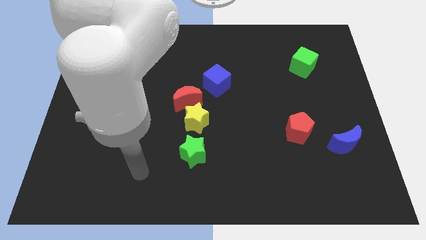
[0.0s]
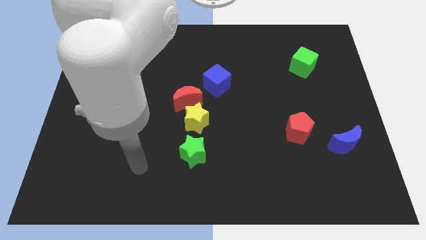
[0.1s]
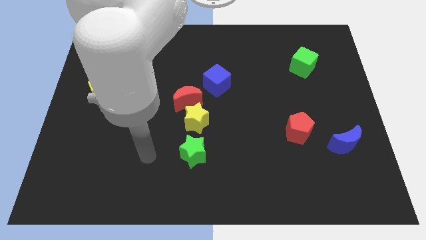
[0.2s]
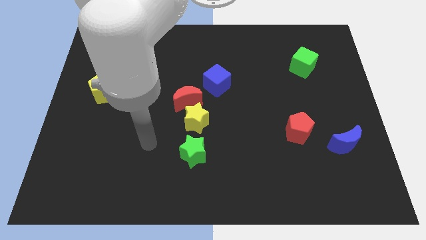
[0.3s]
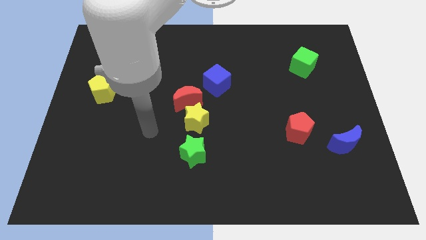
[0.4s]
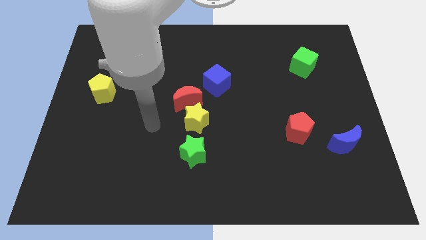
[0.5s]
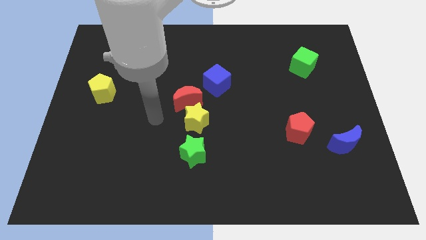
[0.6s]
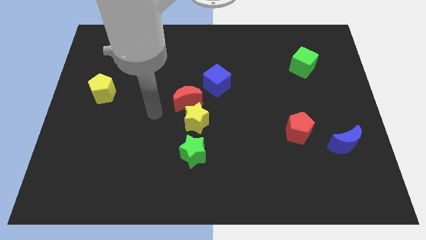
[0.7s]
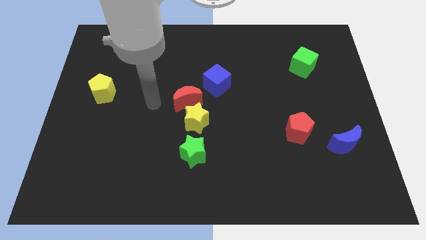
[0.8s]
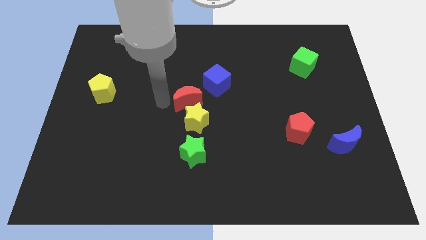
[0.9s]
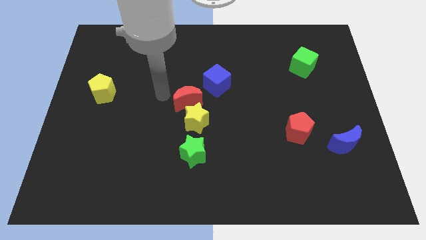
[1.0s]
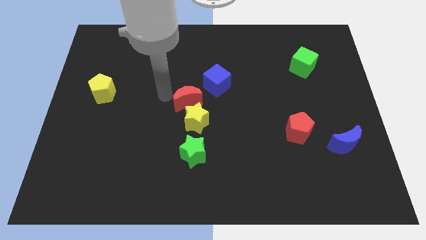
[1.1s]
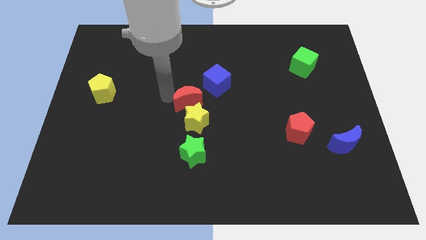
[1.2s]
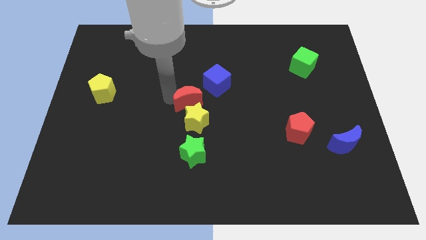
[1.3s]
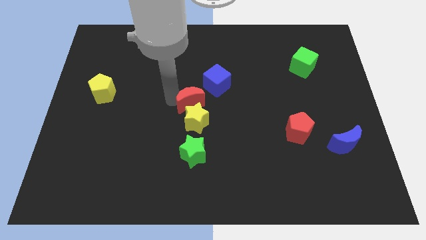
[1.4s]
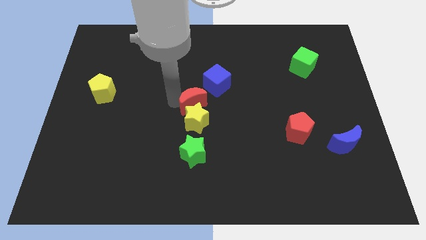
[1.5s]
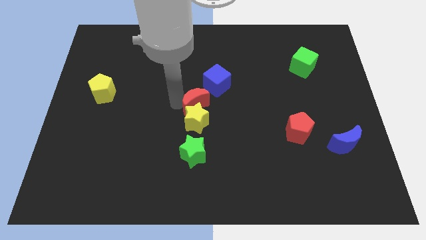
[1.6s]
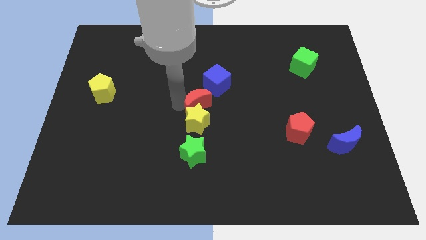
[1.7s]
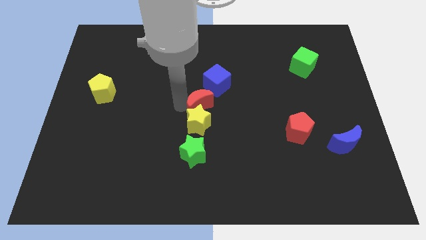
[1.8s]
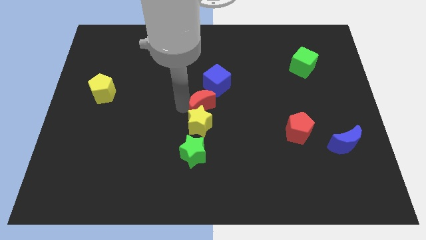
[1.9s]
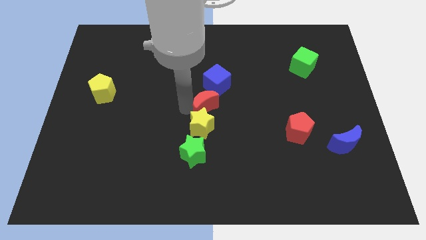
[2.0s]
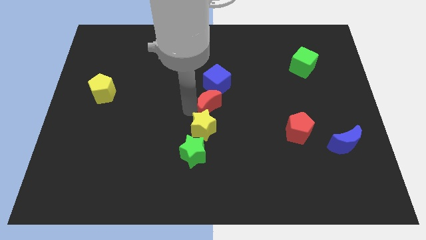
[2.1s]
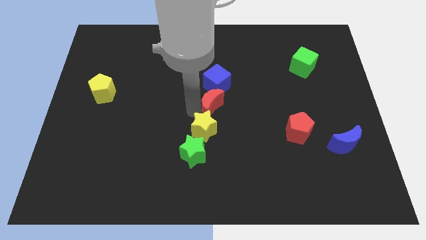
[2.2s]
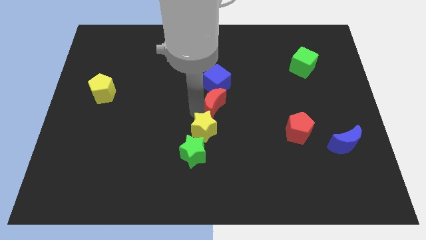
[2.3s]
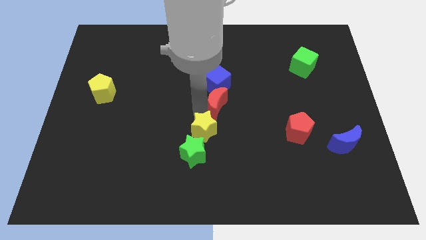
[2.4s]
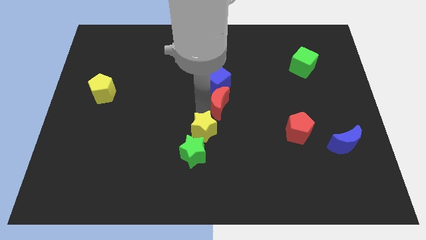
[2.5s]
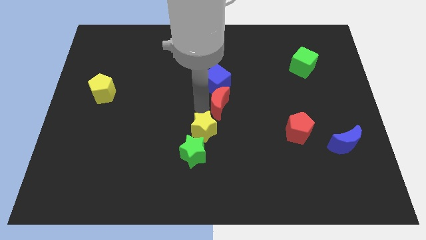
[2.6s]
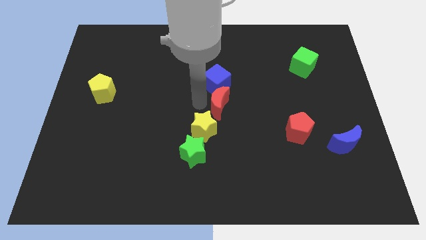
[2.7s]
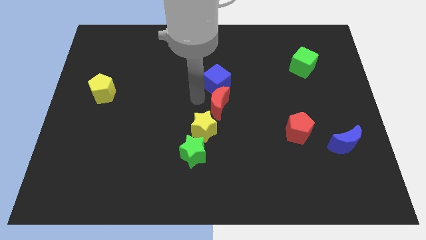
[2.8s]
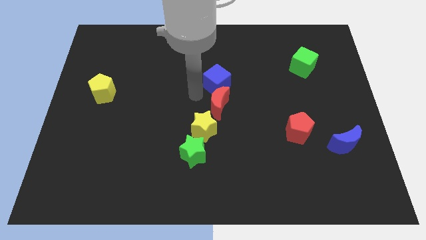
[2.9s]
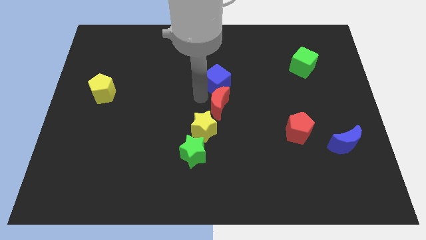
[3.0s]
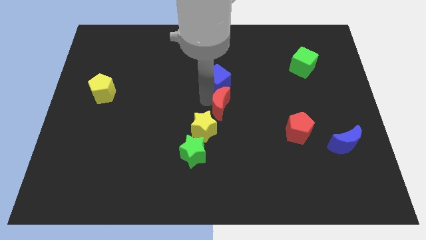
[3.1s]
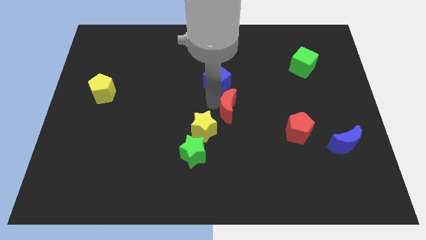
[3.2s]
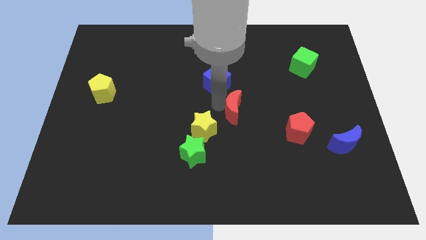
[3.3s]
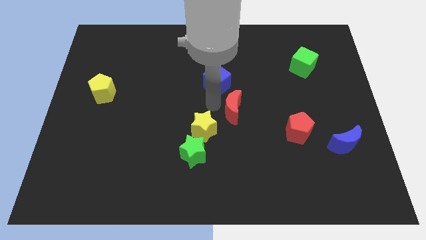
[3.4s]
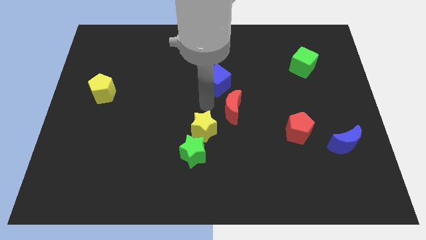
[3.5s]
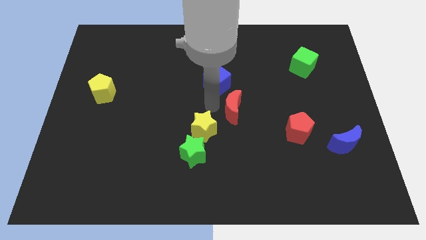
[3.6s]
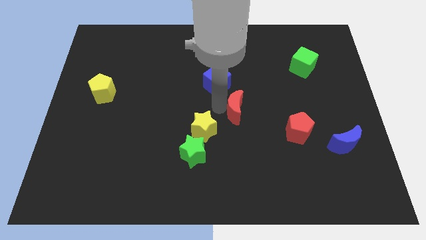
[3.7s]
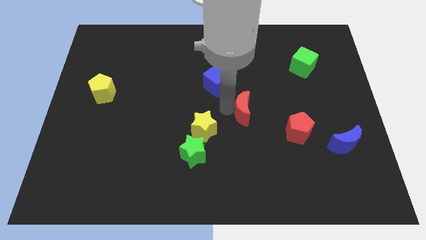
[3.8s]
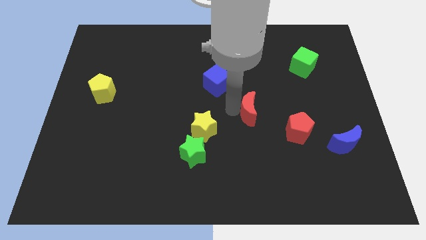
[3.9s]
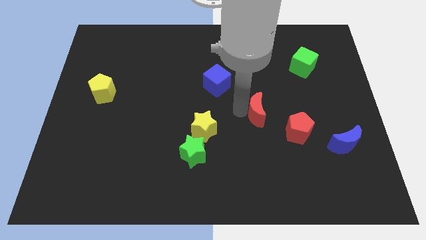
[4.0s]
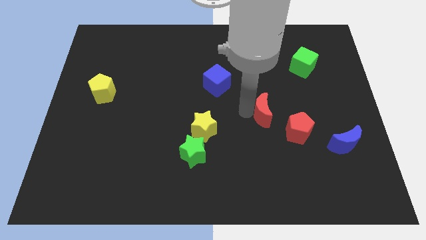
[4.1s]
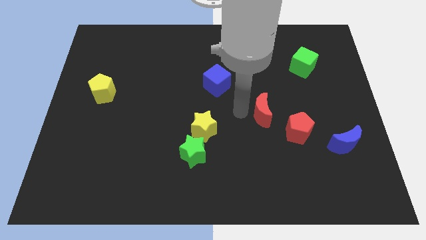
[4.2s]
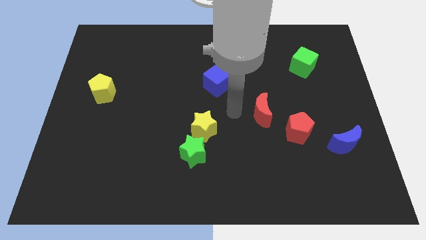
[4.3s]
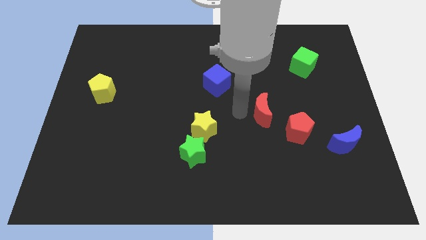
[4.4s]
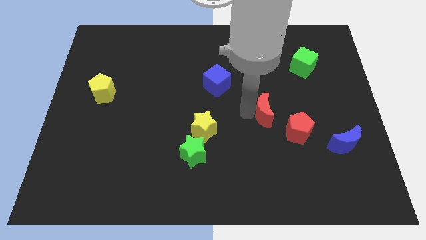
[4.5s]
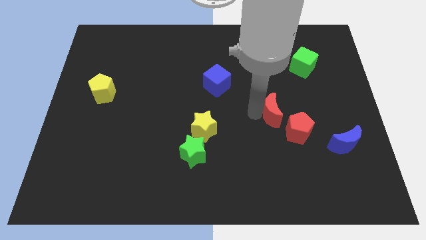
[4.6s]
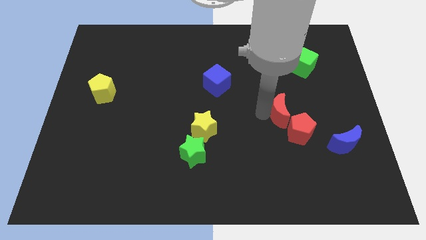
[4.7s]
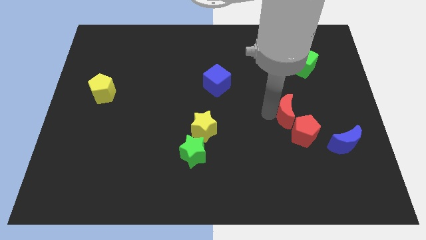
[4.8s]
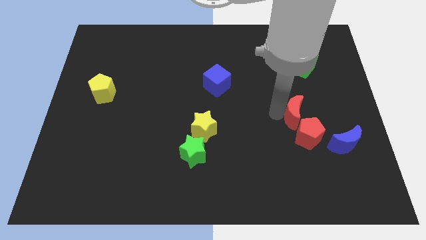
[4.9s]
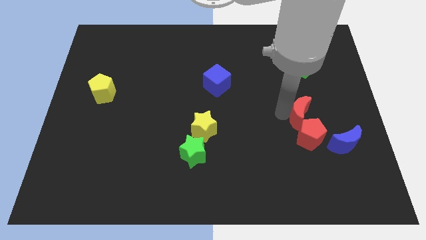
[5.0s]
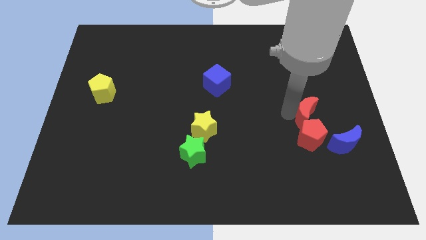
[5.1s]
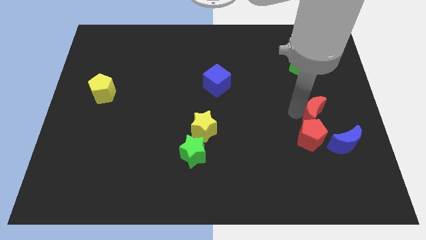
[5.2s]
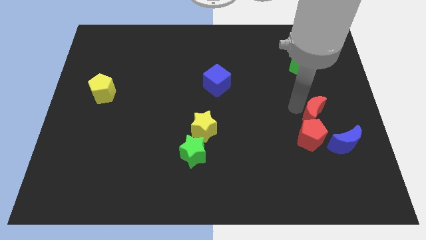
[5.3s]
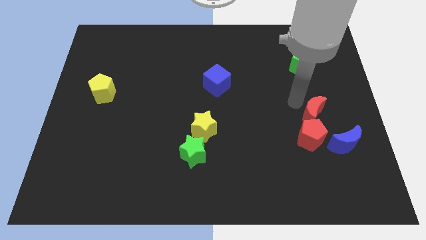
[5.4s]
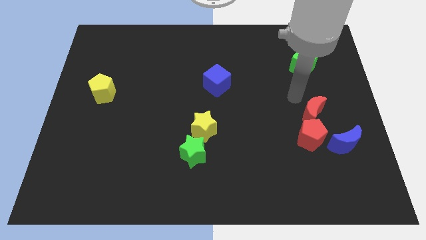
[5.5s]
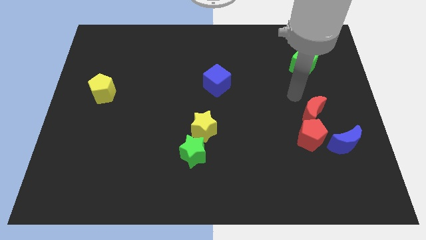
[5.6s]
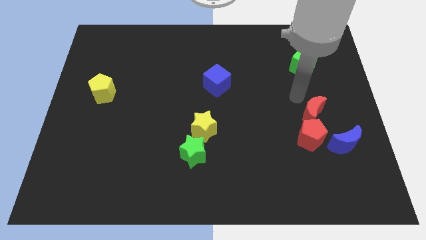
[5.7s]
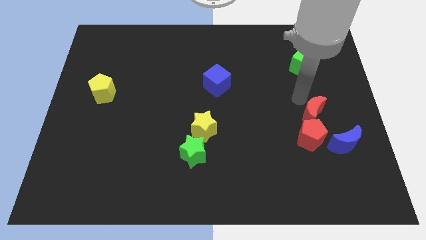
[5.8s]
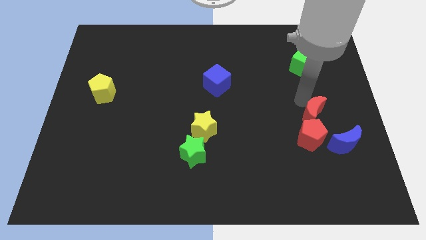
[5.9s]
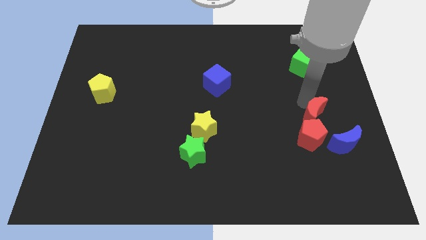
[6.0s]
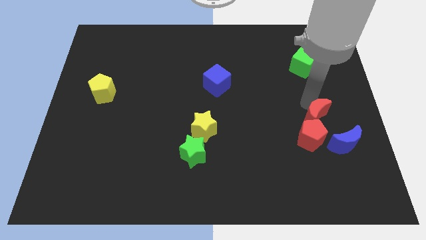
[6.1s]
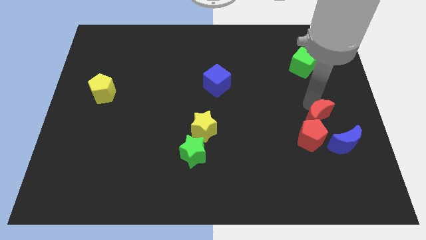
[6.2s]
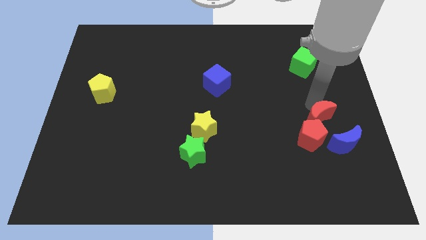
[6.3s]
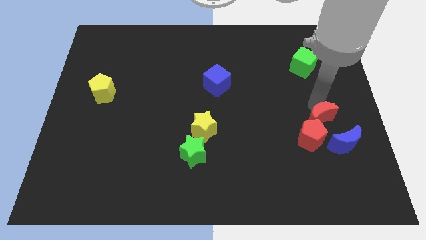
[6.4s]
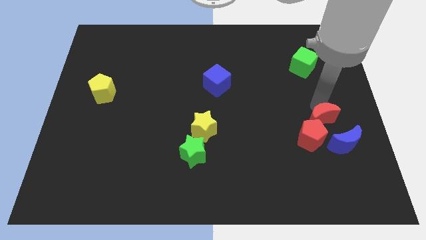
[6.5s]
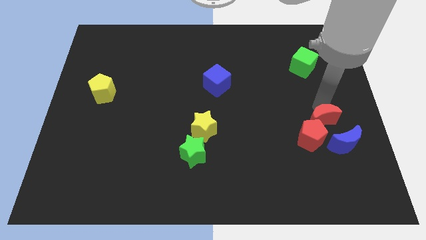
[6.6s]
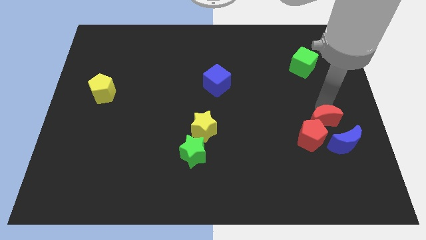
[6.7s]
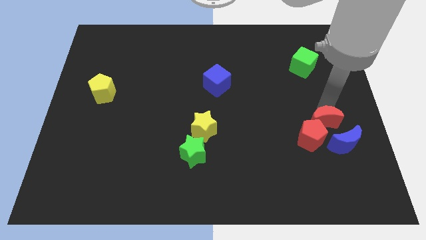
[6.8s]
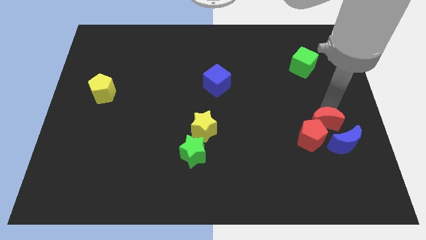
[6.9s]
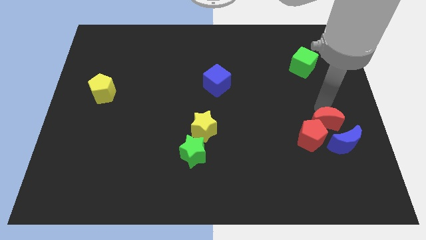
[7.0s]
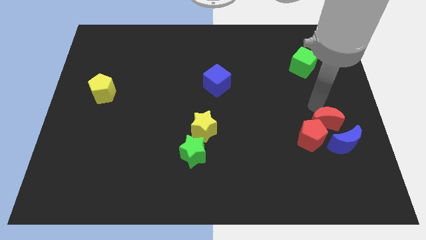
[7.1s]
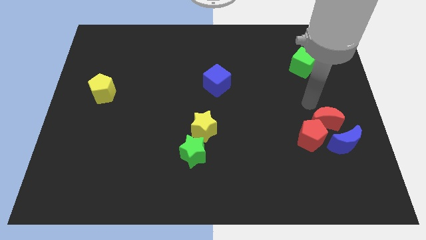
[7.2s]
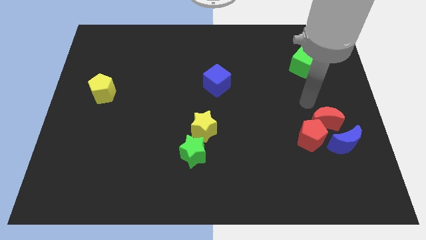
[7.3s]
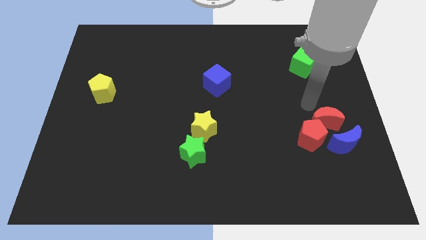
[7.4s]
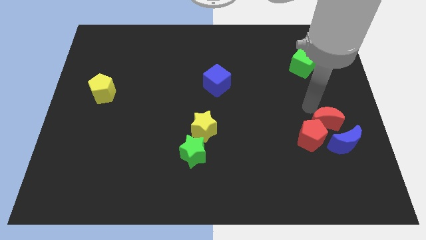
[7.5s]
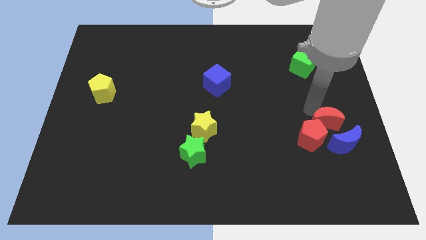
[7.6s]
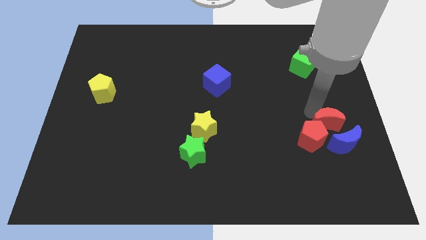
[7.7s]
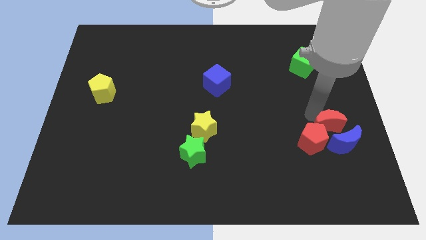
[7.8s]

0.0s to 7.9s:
put the red moon close to the blue moon
